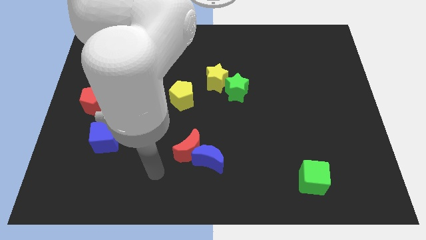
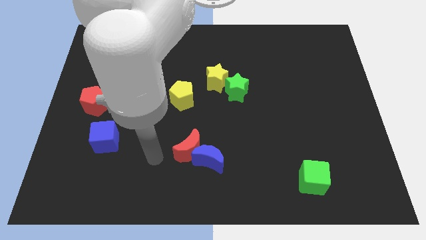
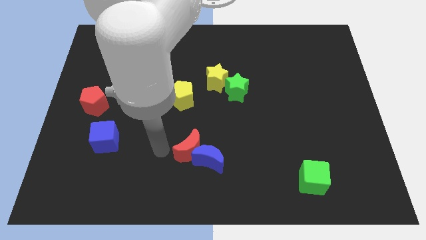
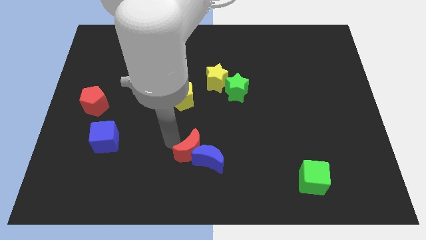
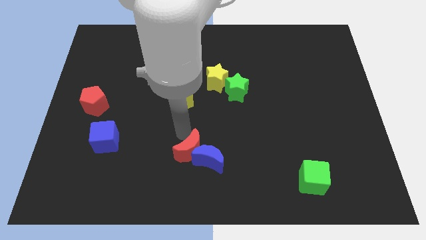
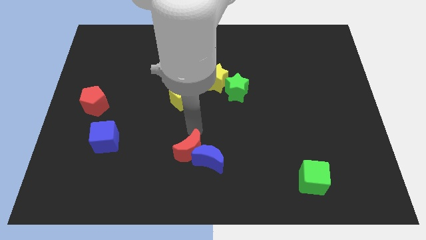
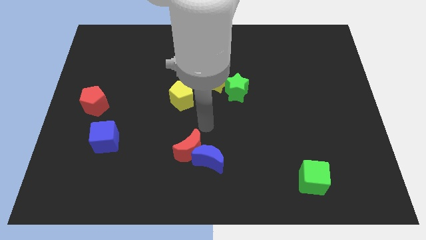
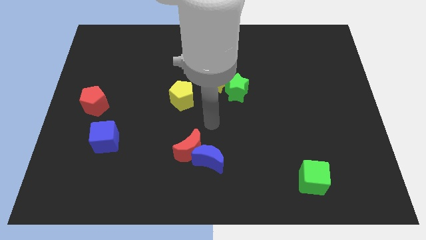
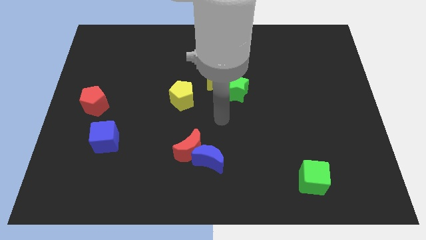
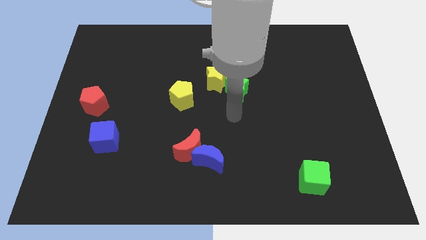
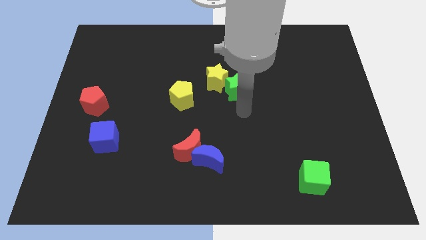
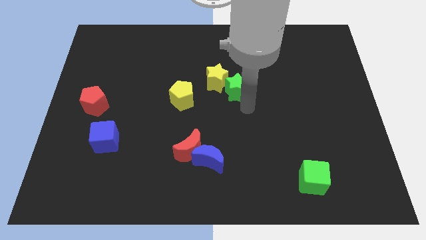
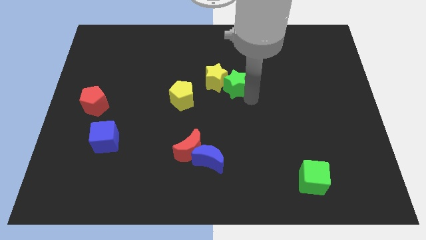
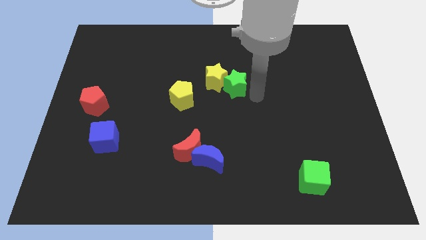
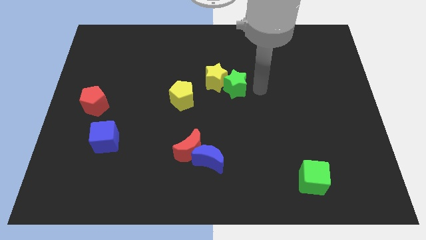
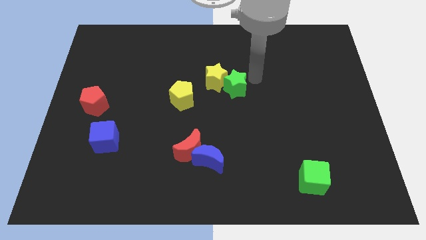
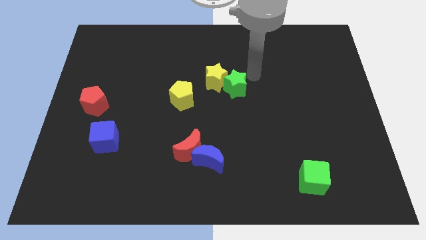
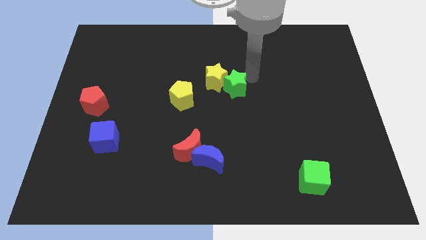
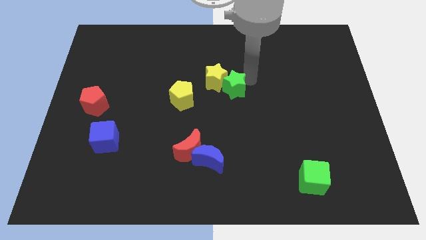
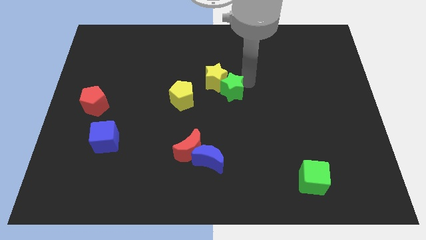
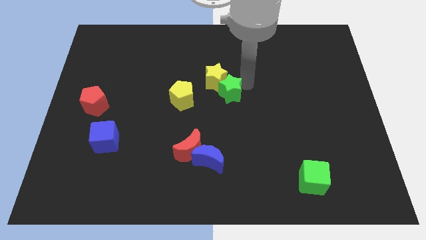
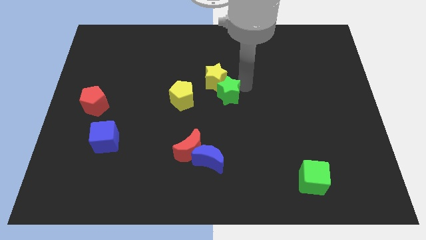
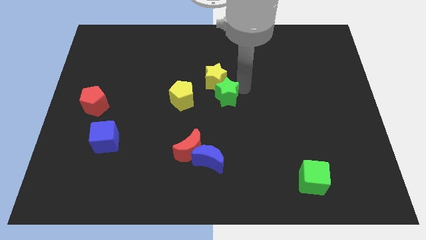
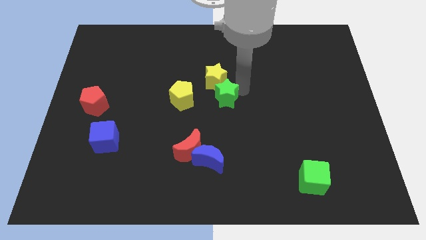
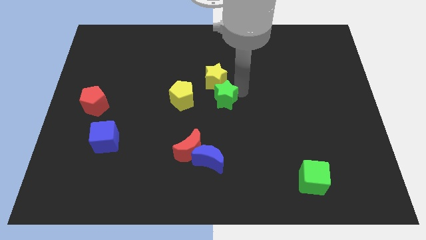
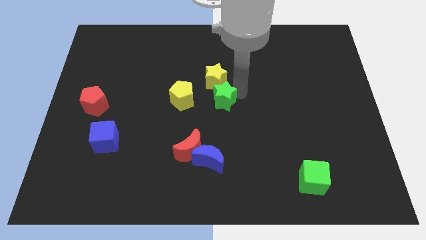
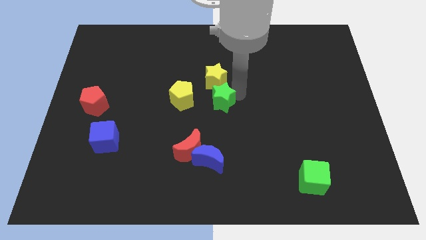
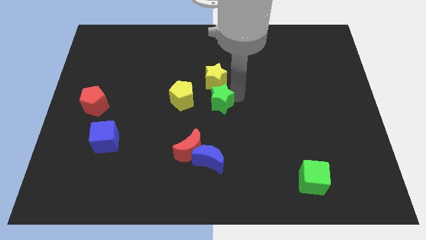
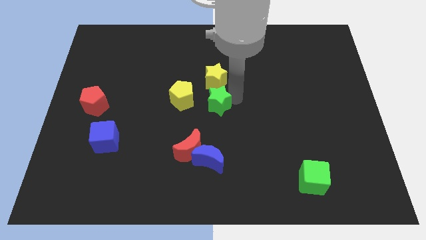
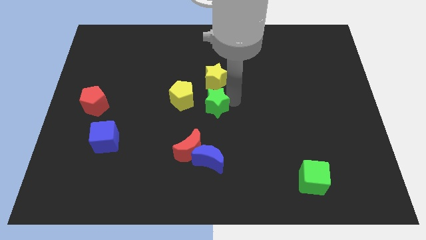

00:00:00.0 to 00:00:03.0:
slightly slide the green star down and left diagonally

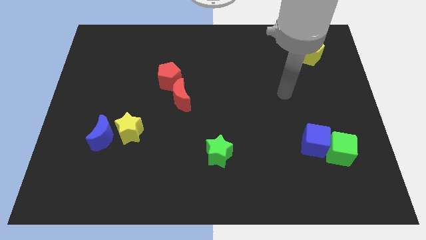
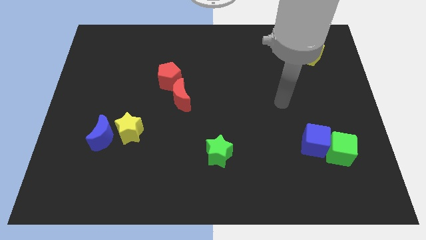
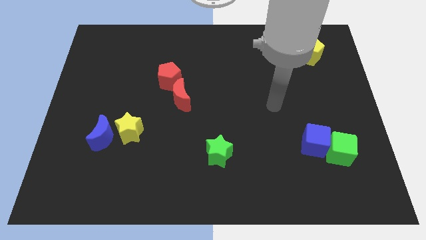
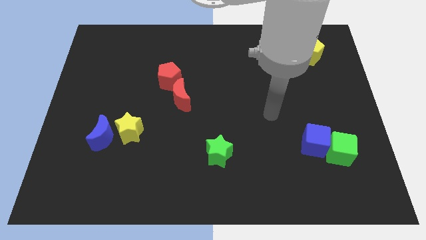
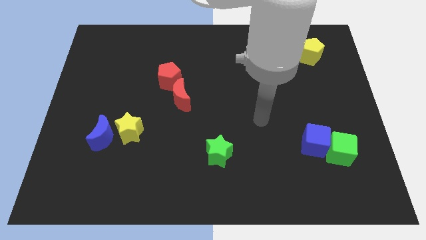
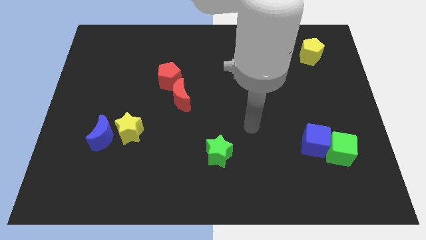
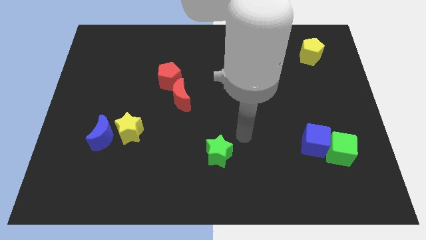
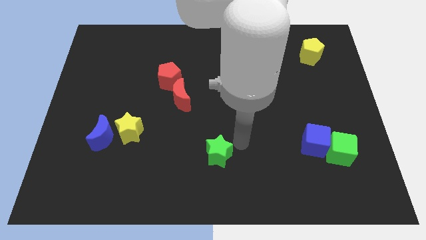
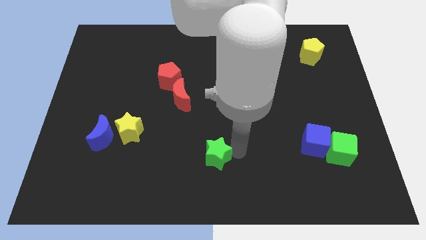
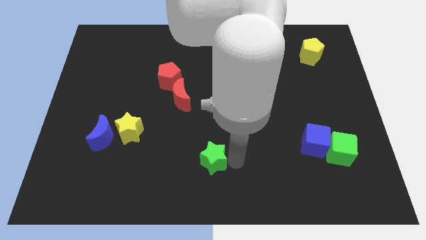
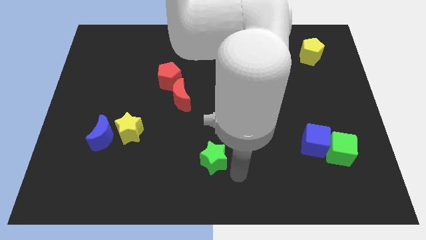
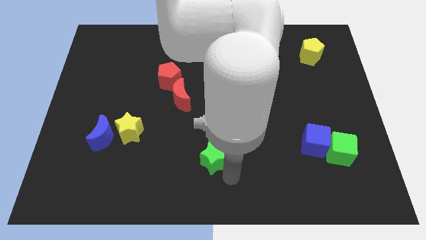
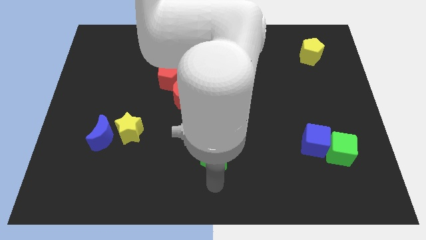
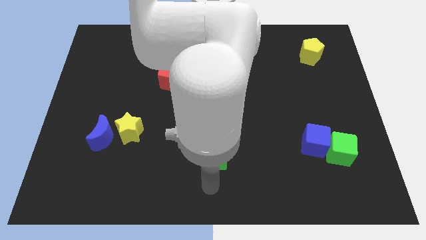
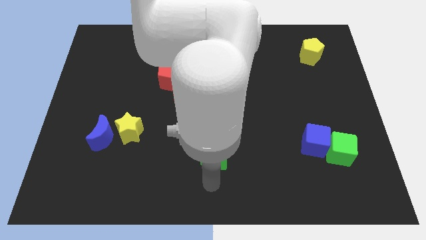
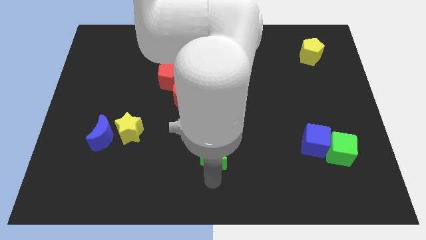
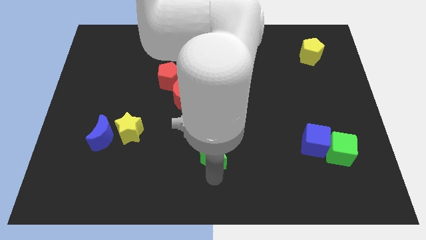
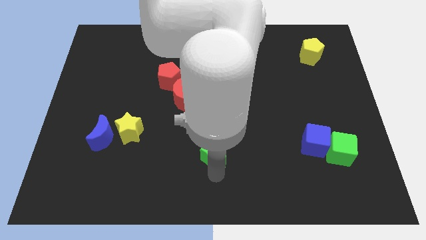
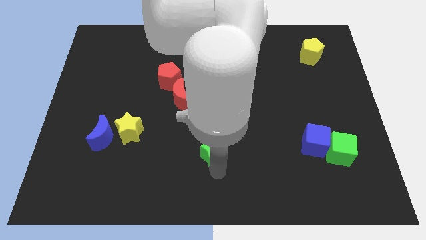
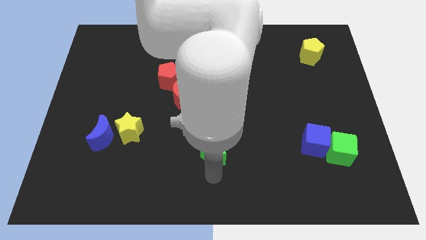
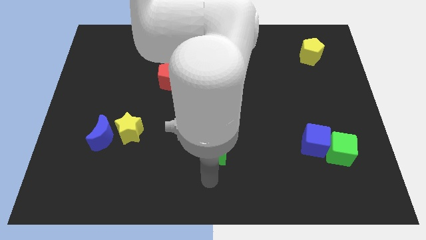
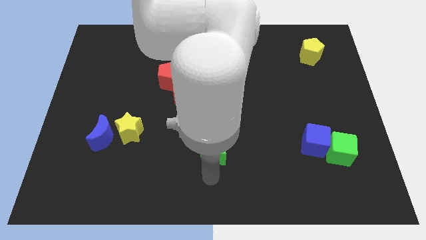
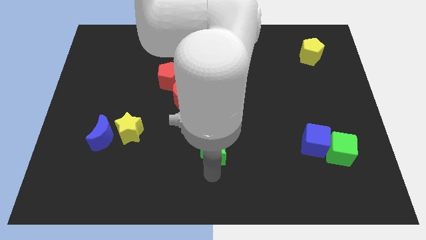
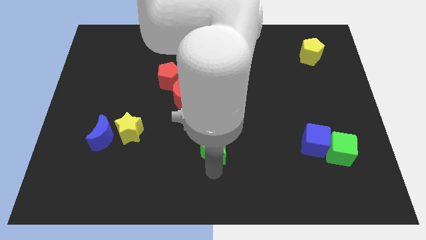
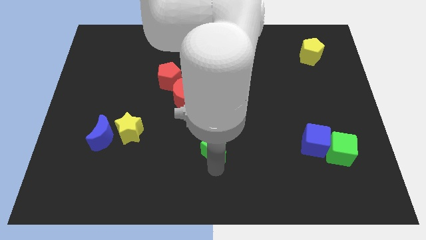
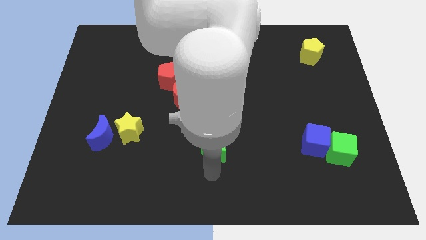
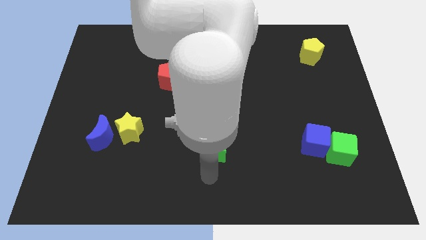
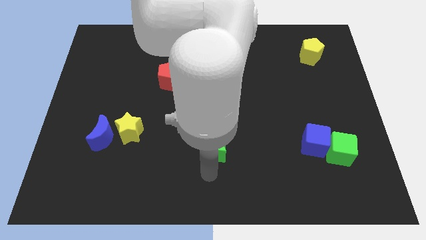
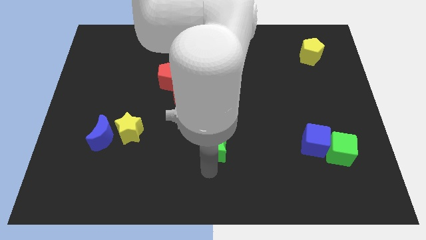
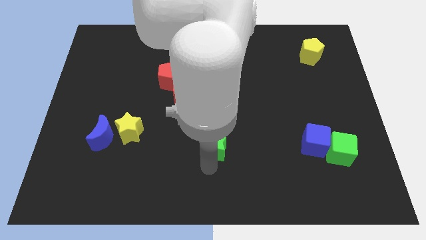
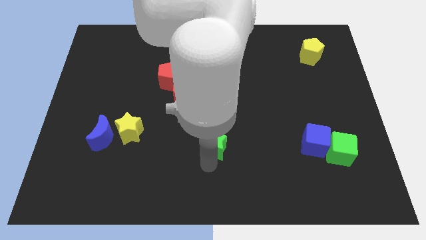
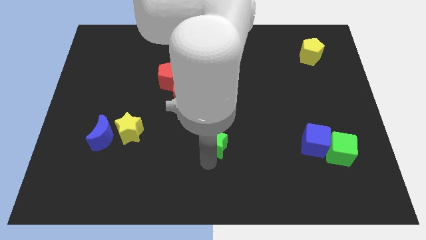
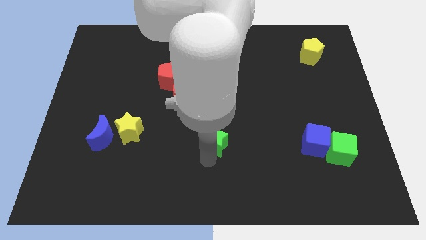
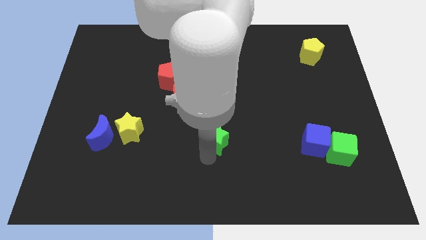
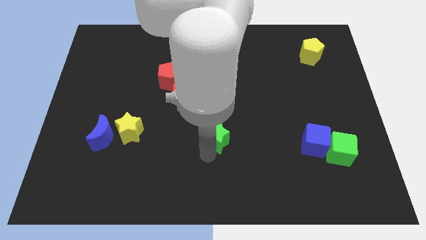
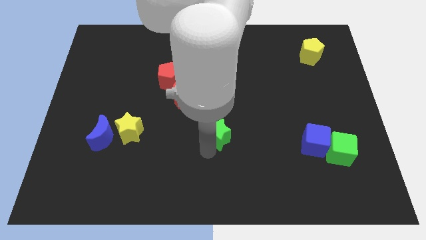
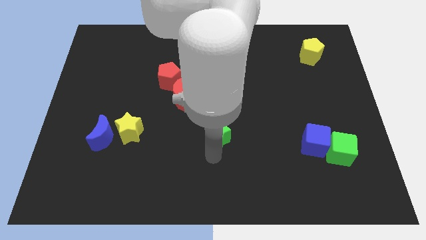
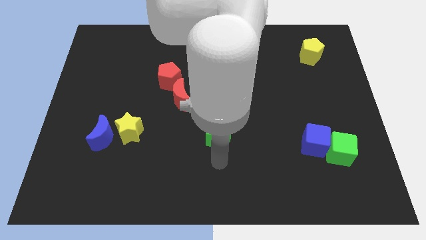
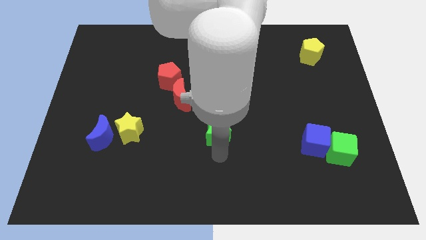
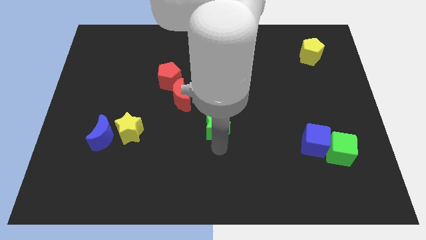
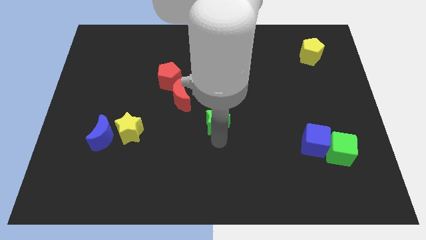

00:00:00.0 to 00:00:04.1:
push the green star upwards a little bit

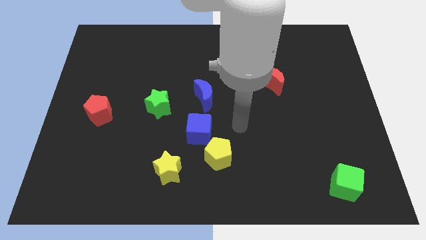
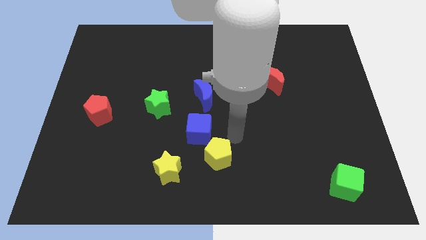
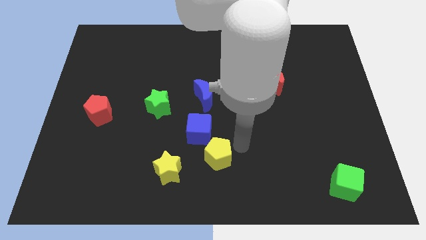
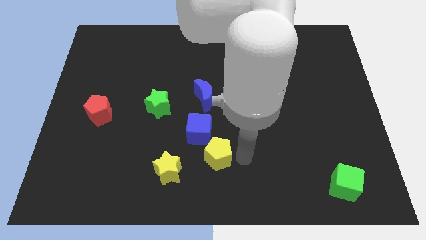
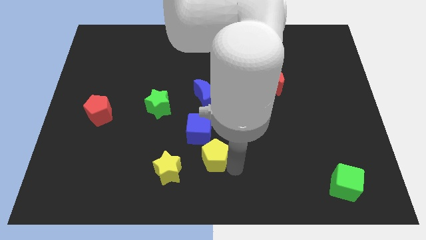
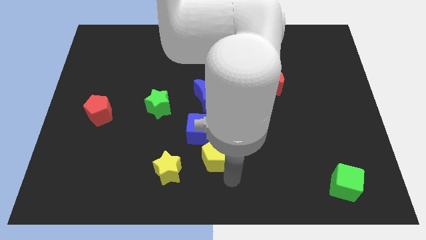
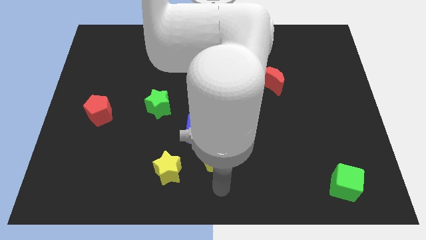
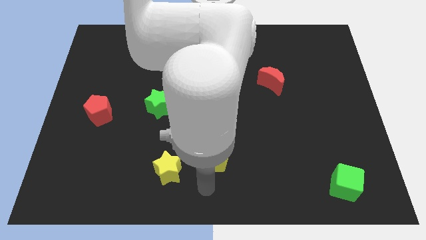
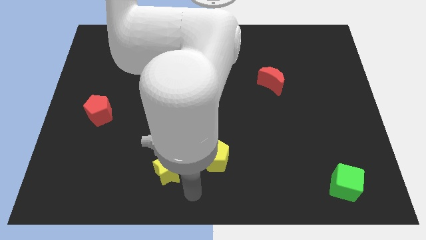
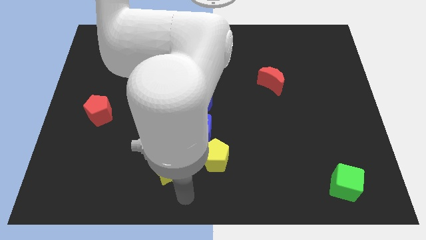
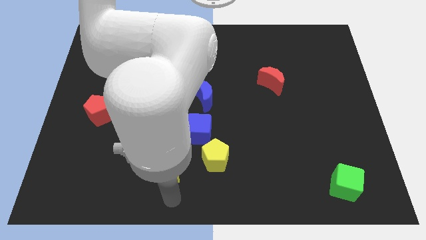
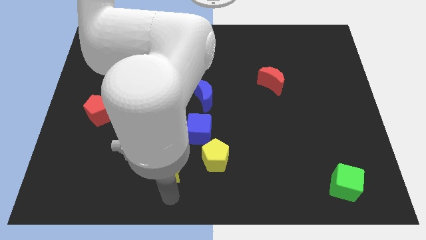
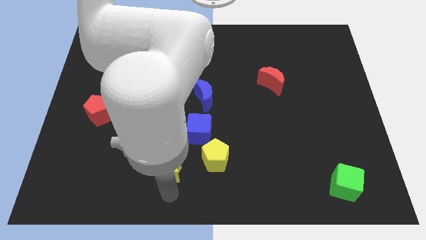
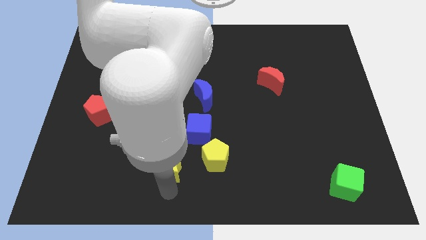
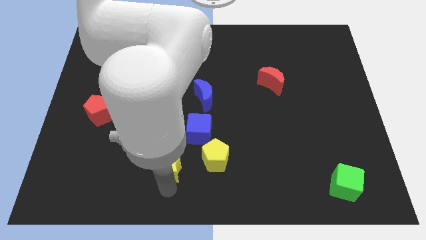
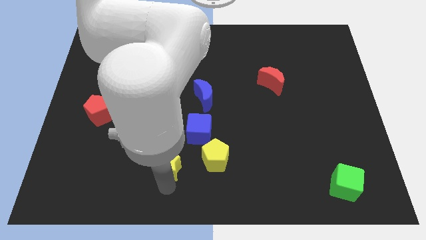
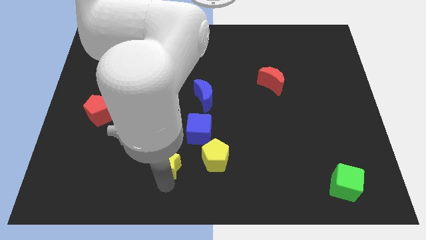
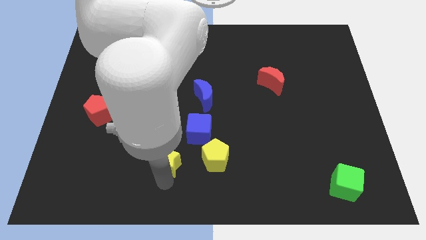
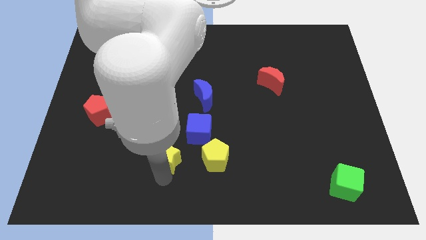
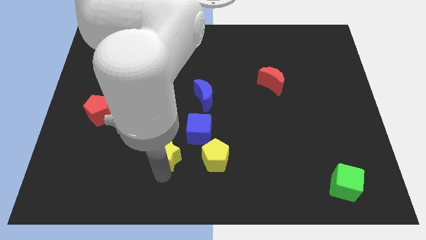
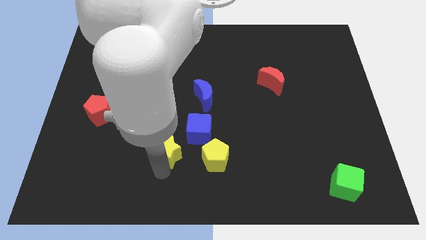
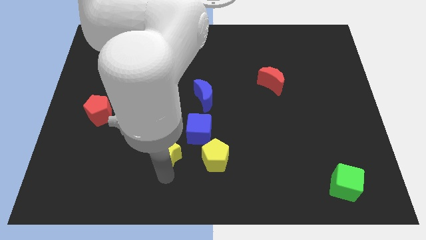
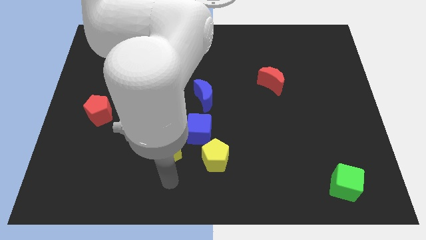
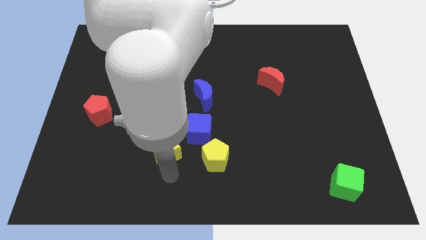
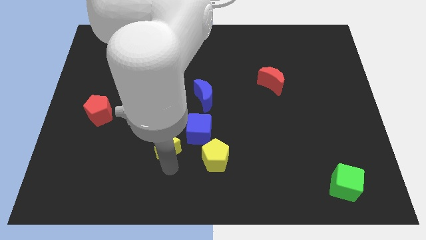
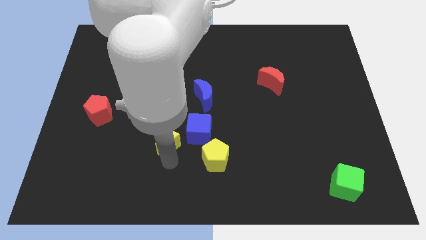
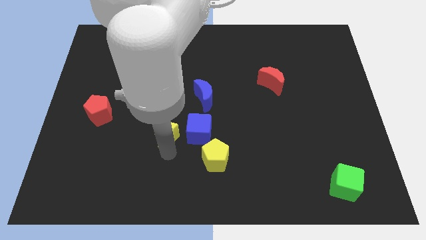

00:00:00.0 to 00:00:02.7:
slightly move the yellow star upwards
